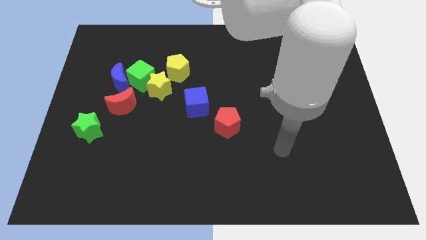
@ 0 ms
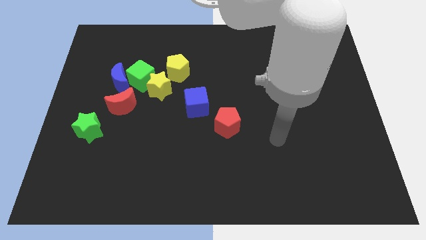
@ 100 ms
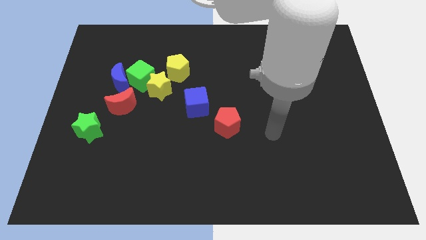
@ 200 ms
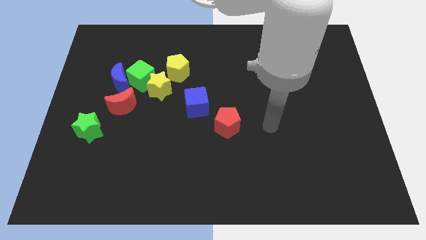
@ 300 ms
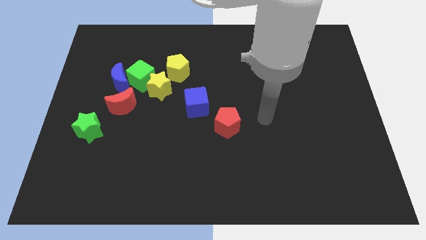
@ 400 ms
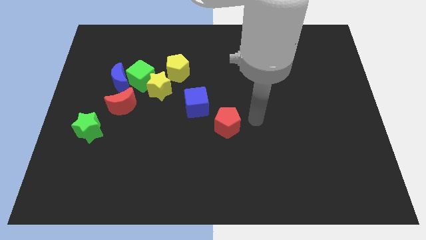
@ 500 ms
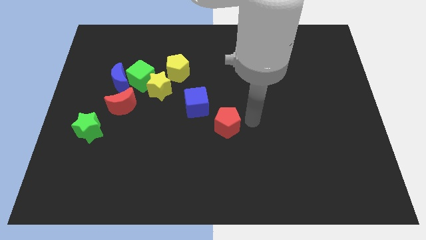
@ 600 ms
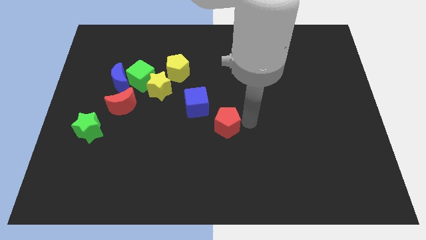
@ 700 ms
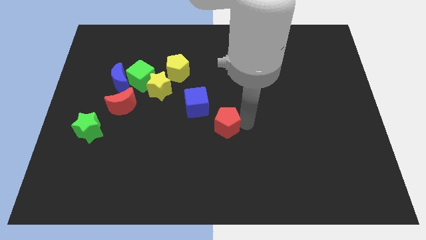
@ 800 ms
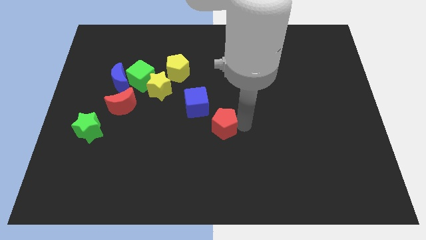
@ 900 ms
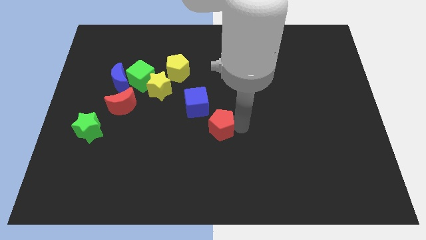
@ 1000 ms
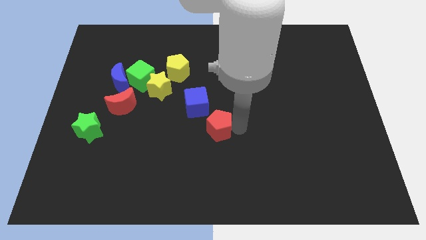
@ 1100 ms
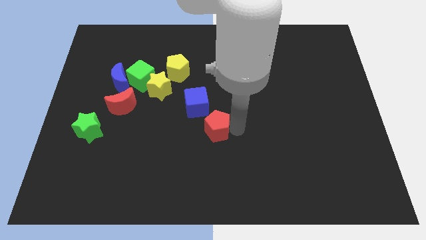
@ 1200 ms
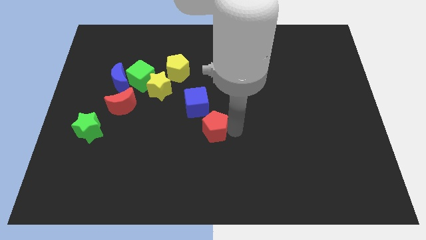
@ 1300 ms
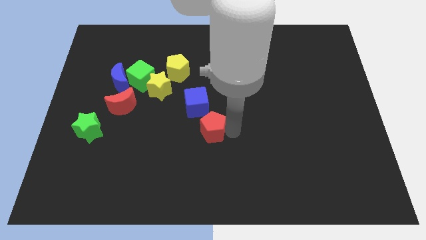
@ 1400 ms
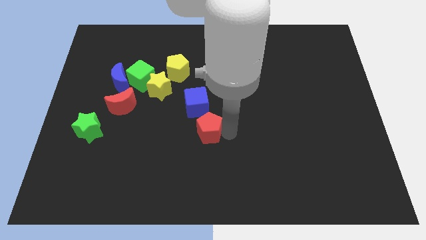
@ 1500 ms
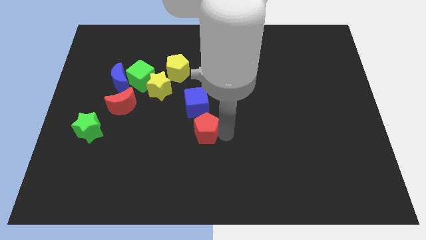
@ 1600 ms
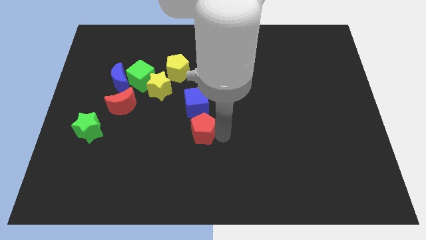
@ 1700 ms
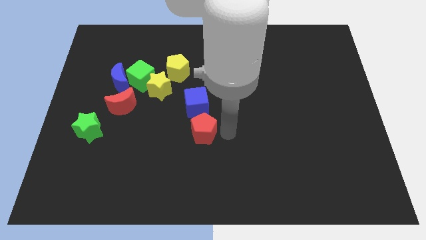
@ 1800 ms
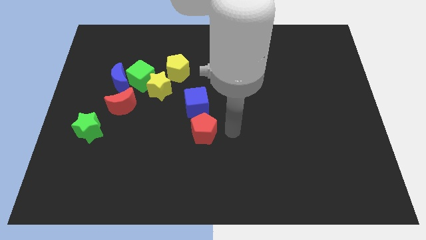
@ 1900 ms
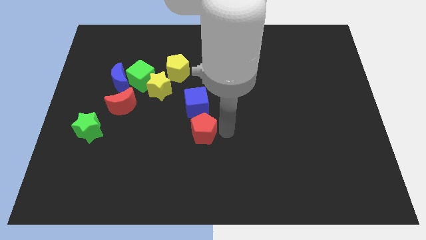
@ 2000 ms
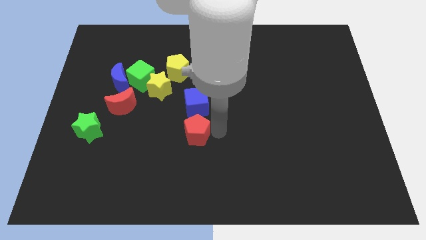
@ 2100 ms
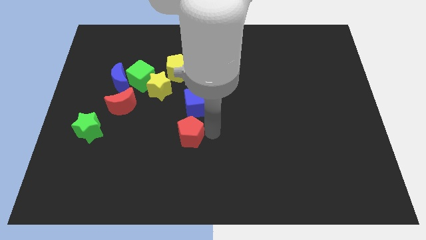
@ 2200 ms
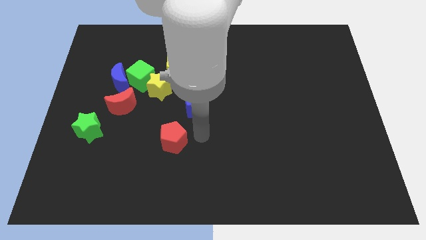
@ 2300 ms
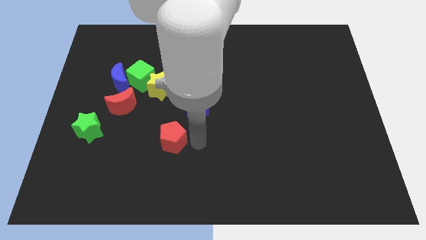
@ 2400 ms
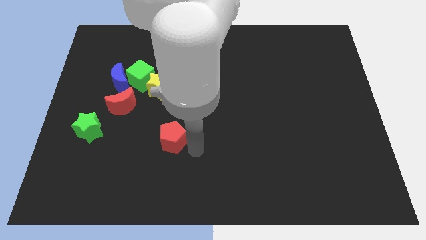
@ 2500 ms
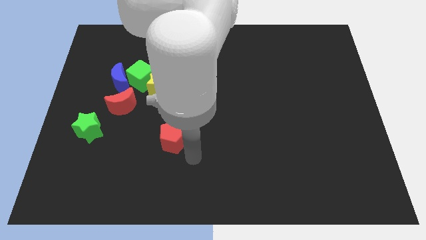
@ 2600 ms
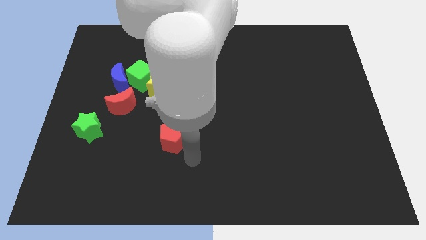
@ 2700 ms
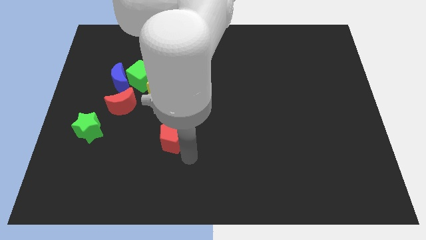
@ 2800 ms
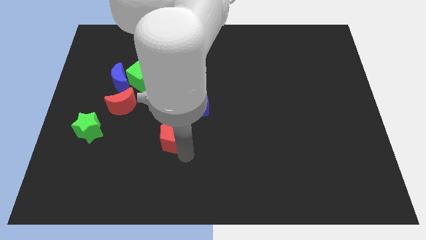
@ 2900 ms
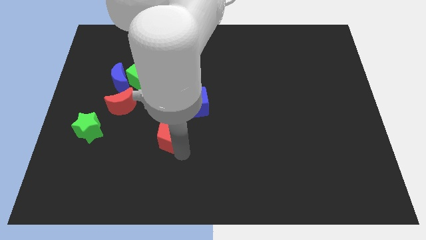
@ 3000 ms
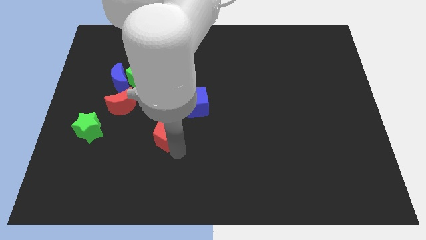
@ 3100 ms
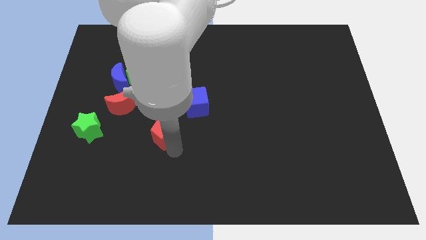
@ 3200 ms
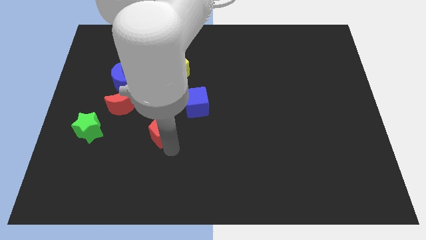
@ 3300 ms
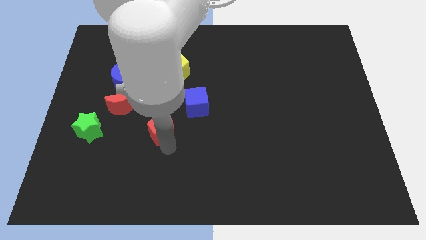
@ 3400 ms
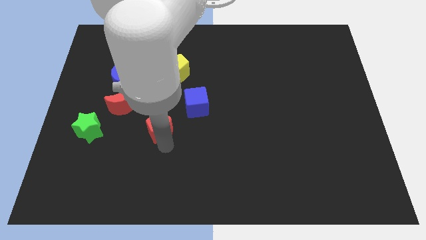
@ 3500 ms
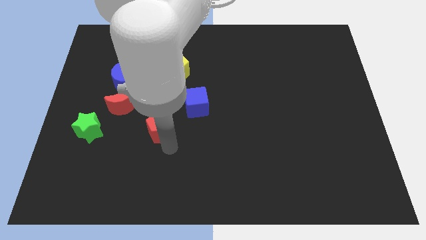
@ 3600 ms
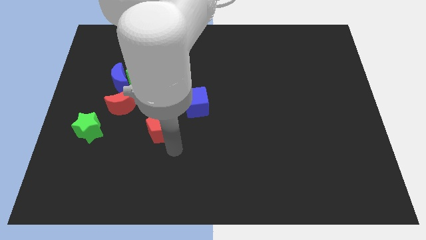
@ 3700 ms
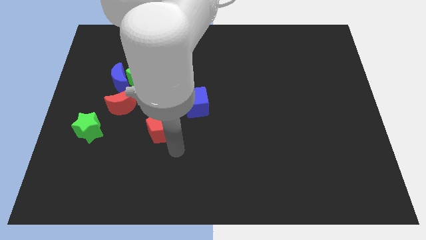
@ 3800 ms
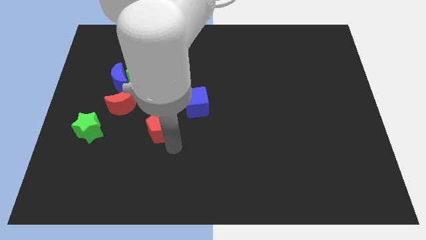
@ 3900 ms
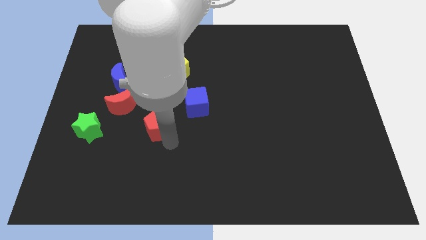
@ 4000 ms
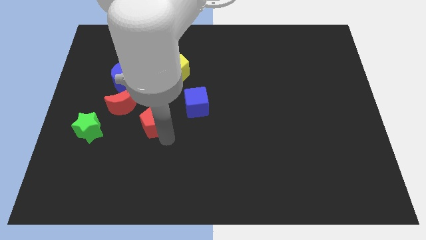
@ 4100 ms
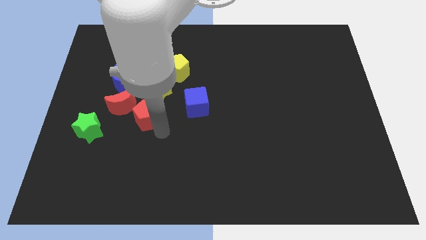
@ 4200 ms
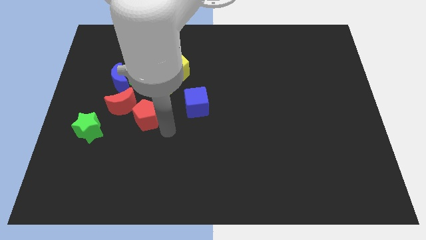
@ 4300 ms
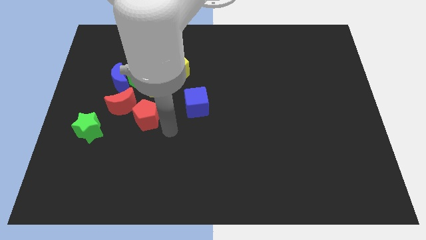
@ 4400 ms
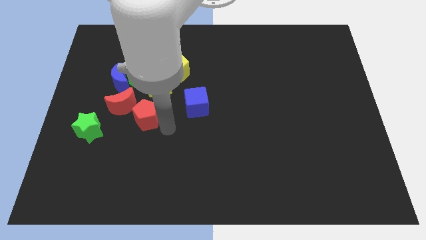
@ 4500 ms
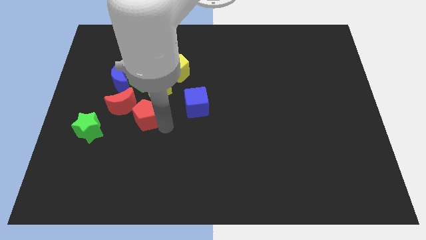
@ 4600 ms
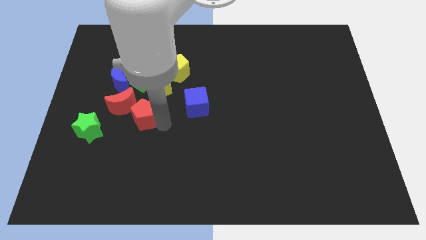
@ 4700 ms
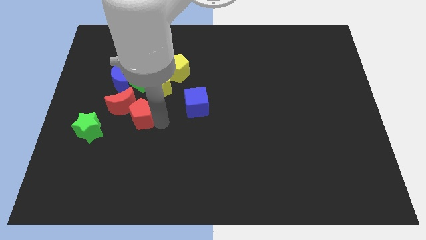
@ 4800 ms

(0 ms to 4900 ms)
slide the red pentagon next to the red moon

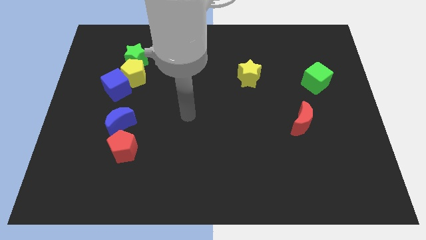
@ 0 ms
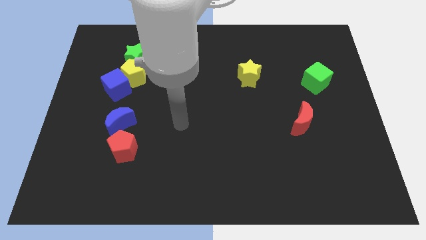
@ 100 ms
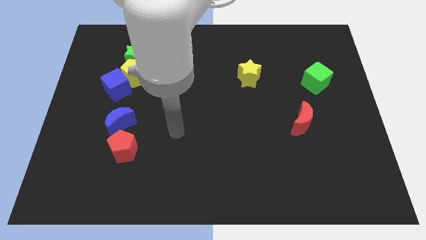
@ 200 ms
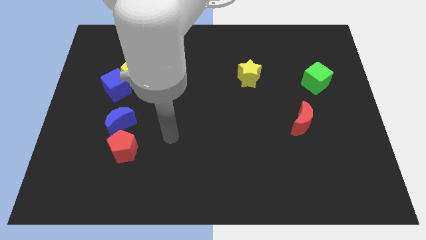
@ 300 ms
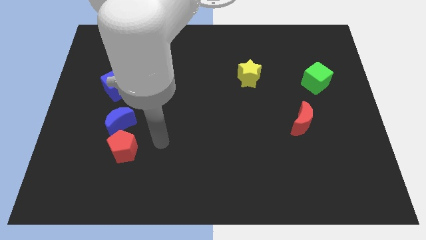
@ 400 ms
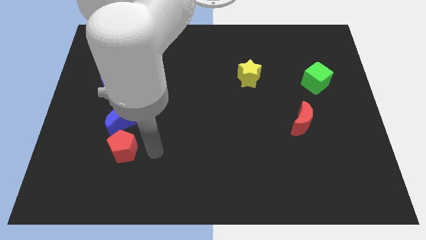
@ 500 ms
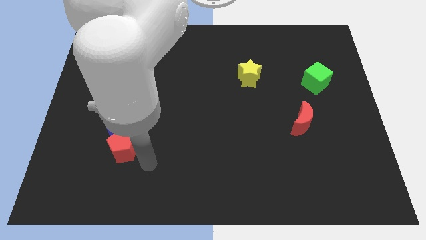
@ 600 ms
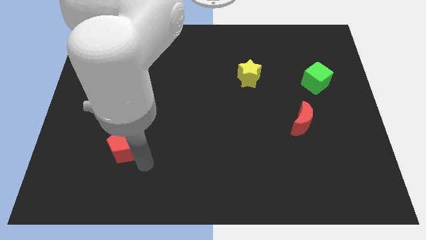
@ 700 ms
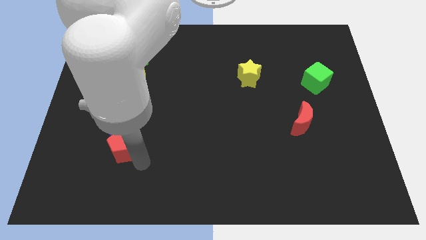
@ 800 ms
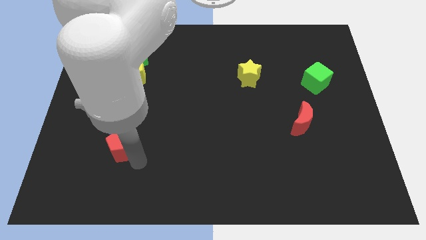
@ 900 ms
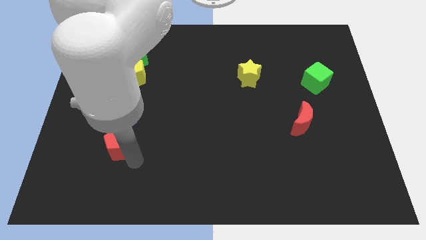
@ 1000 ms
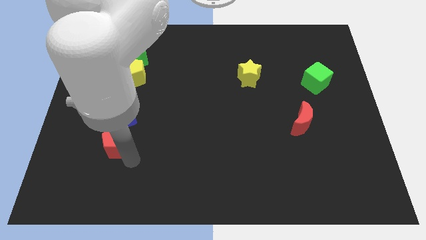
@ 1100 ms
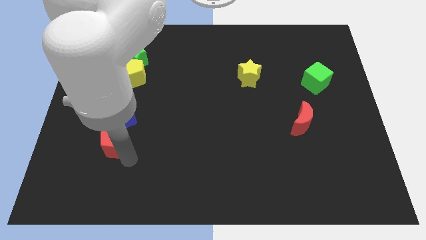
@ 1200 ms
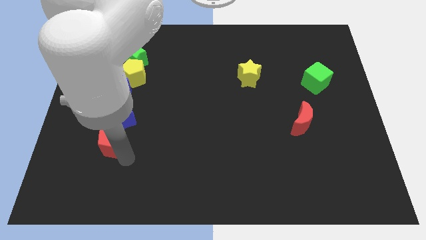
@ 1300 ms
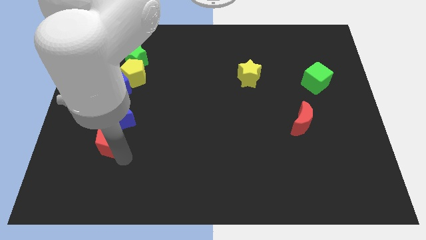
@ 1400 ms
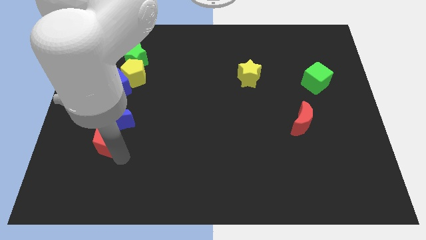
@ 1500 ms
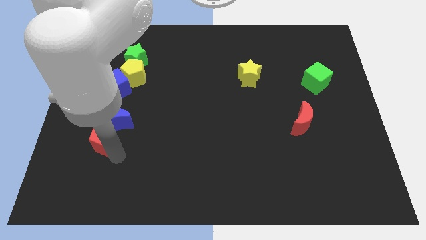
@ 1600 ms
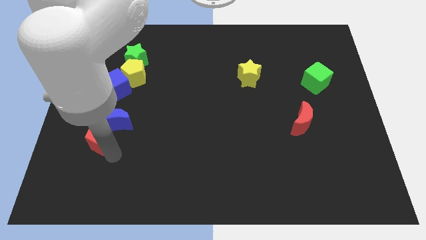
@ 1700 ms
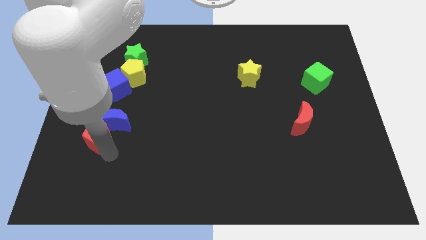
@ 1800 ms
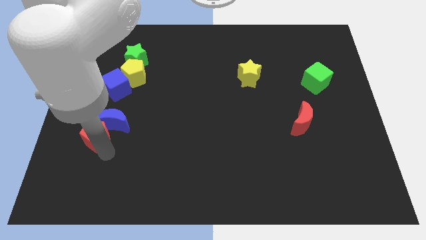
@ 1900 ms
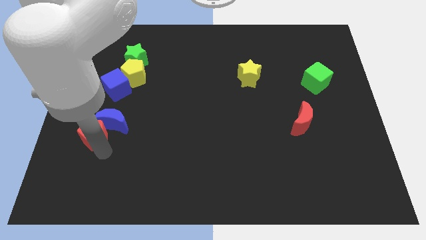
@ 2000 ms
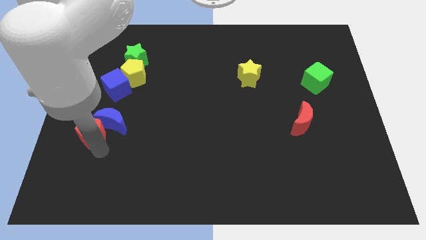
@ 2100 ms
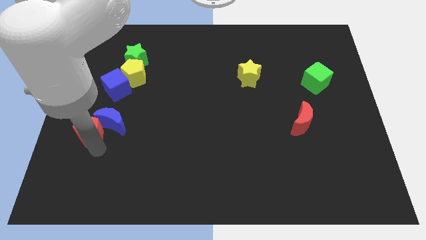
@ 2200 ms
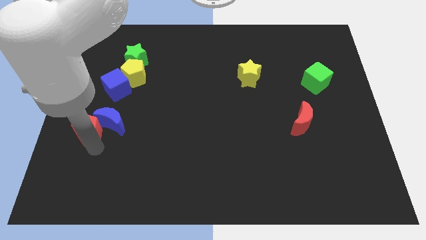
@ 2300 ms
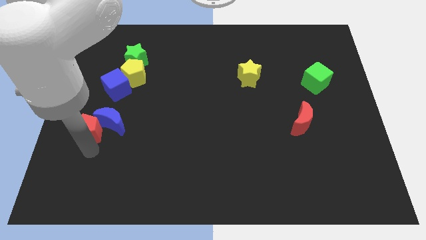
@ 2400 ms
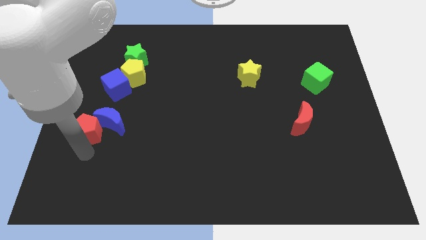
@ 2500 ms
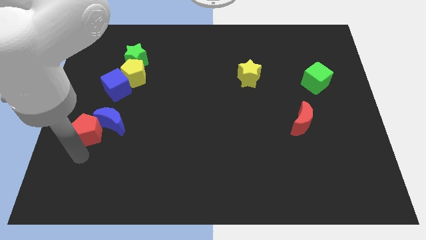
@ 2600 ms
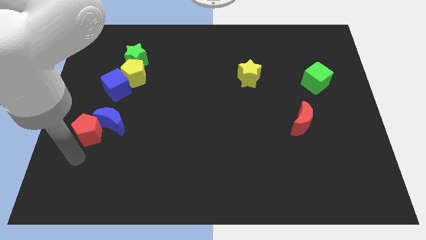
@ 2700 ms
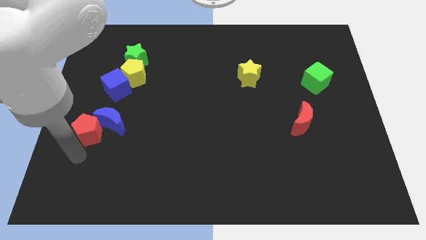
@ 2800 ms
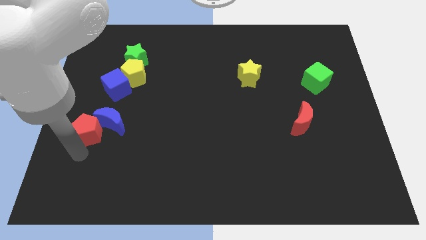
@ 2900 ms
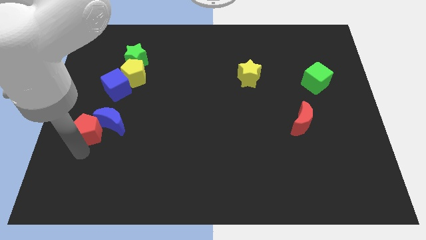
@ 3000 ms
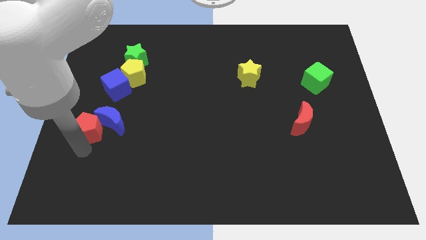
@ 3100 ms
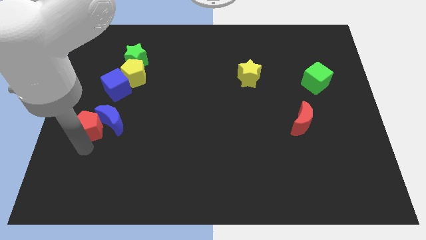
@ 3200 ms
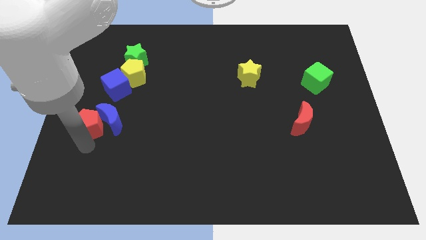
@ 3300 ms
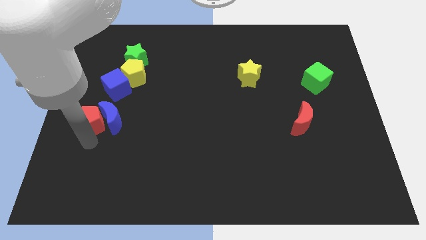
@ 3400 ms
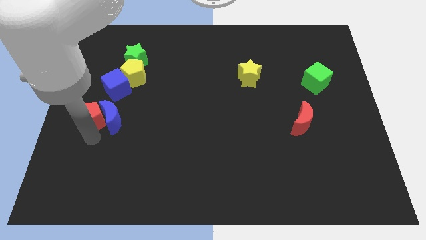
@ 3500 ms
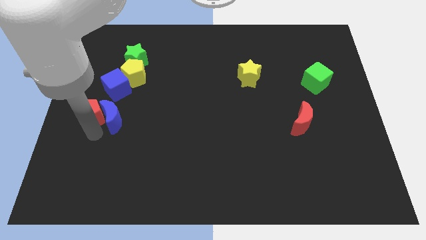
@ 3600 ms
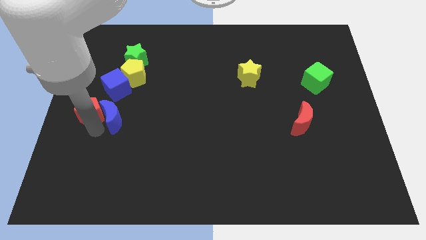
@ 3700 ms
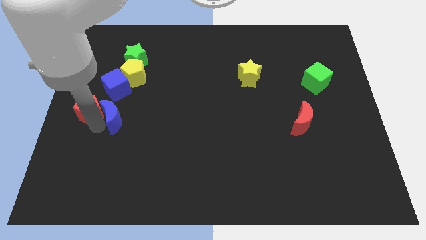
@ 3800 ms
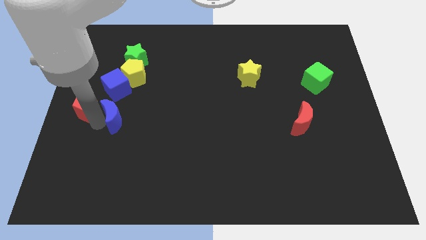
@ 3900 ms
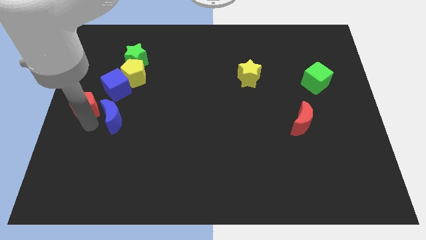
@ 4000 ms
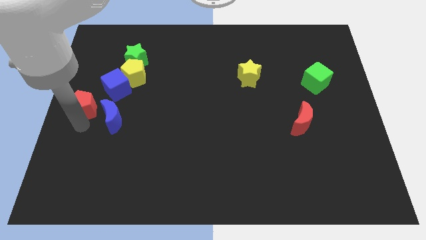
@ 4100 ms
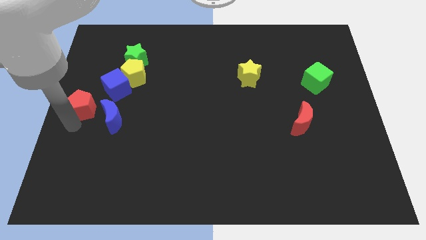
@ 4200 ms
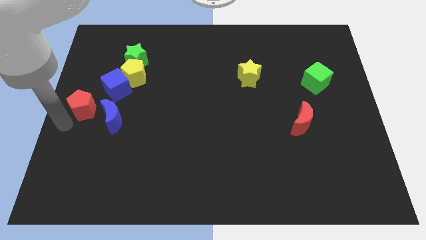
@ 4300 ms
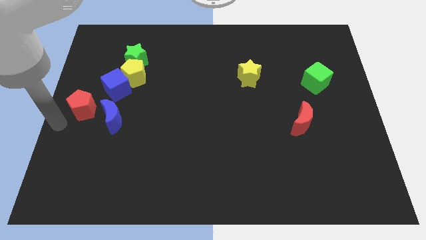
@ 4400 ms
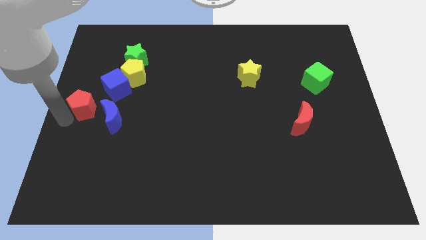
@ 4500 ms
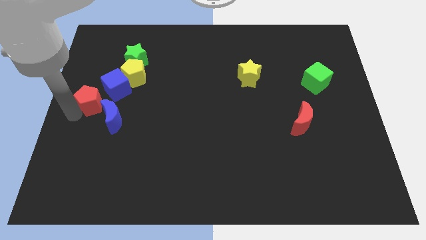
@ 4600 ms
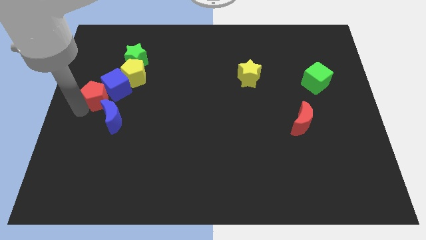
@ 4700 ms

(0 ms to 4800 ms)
push the red pentagon towards the blue cube
